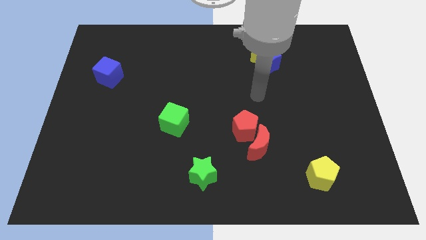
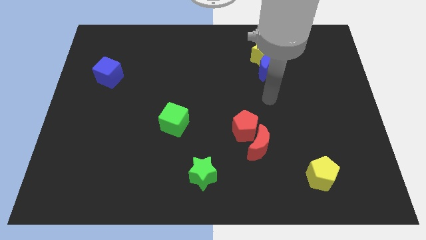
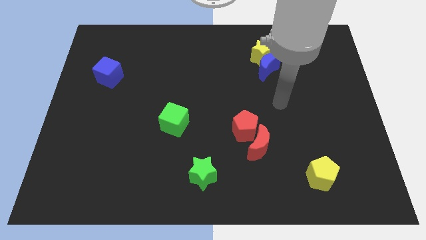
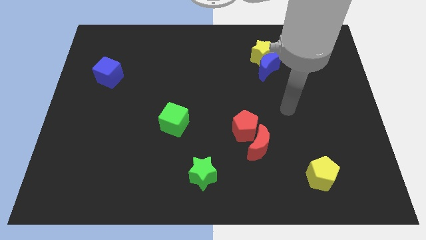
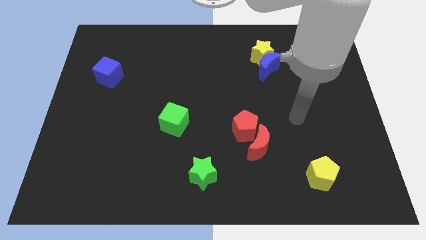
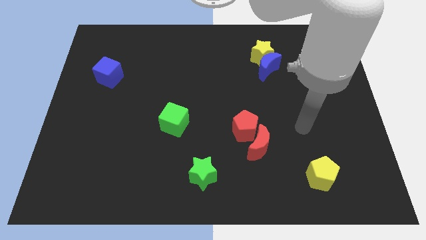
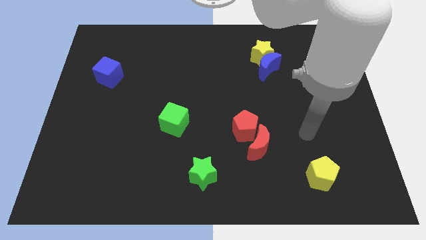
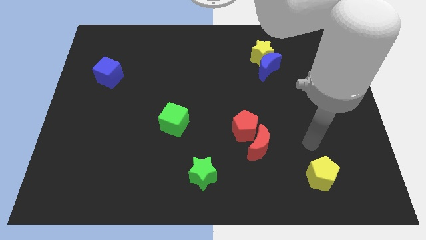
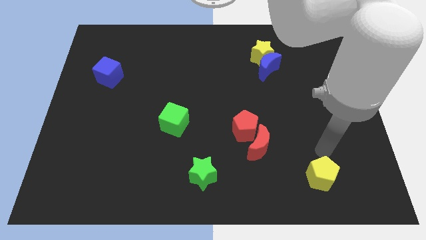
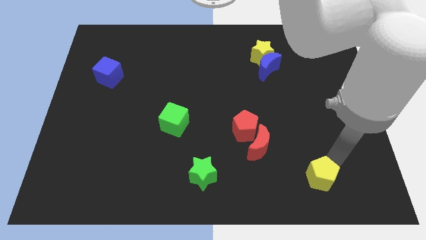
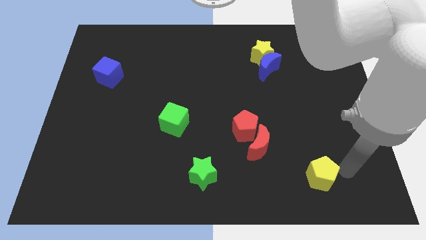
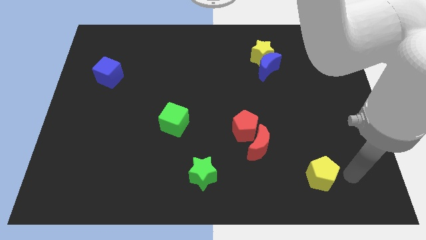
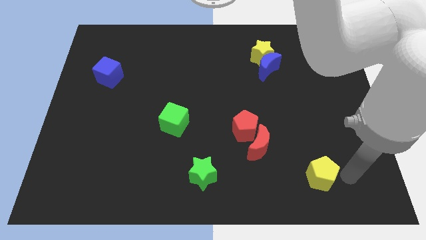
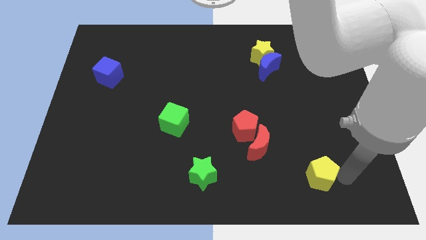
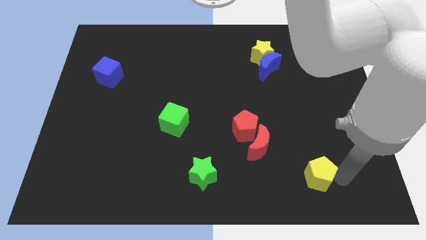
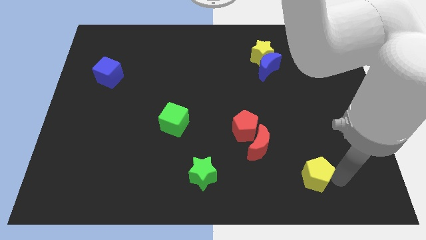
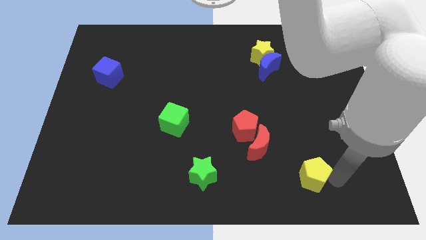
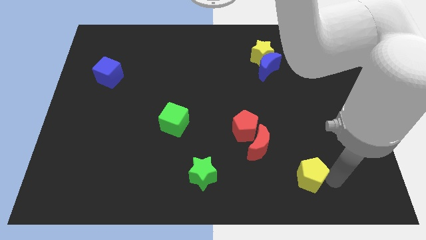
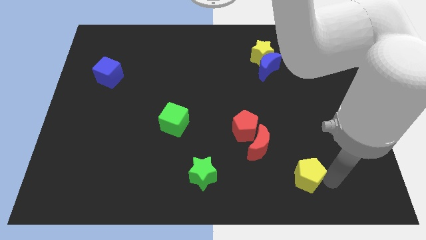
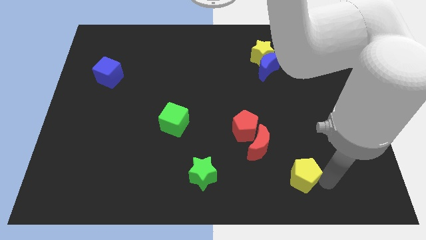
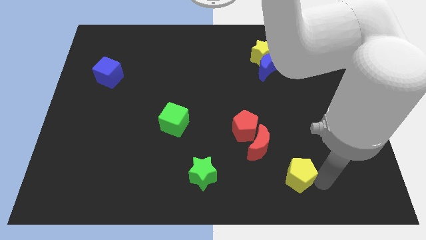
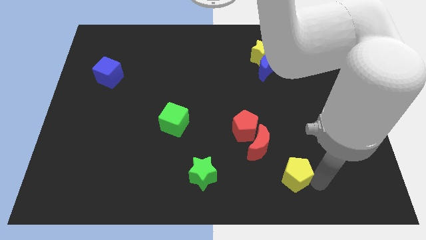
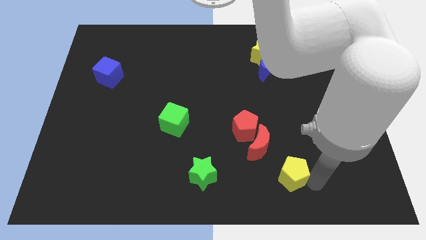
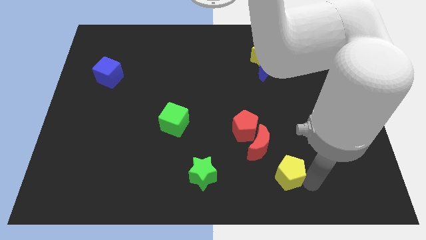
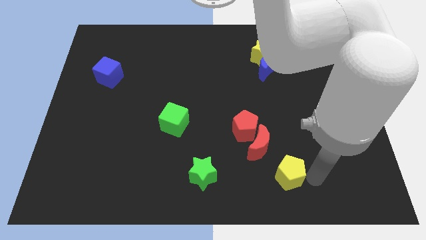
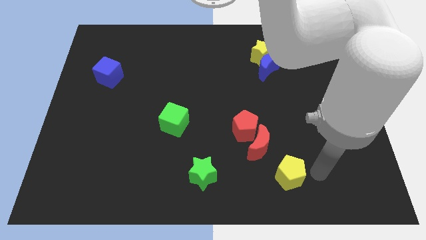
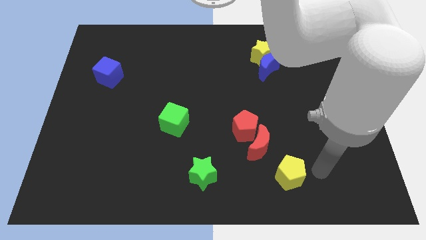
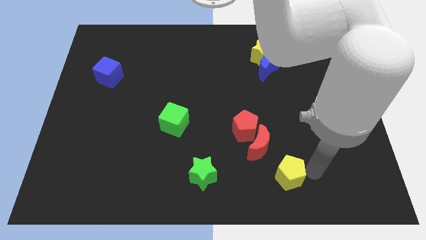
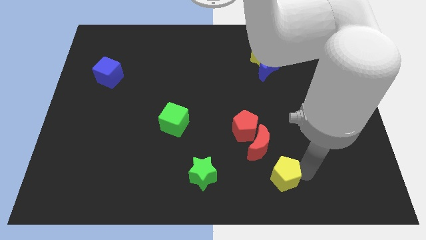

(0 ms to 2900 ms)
slightly move the yellow pentagon to the left

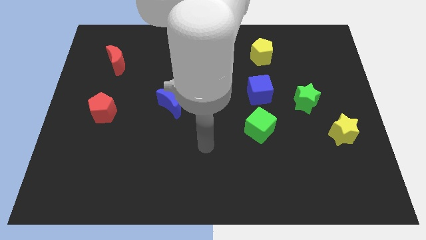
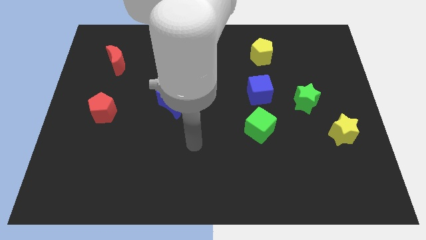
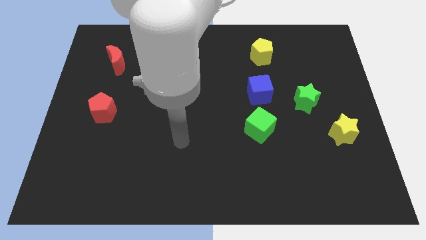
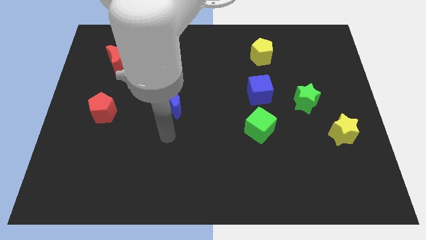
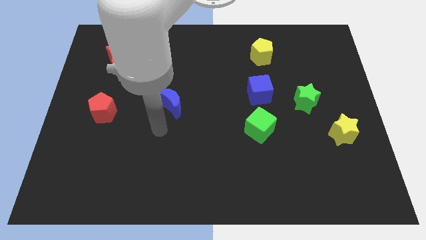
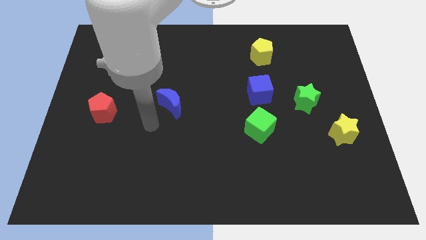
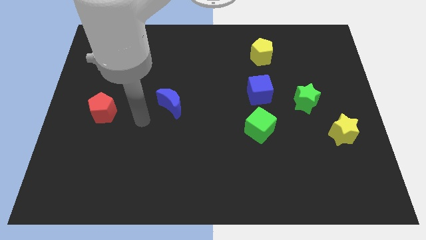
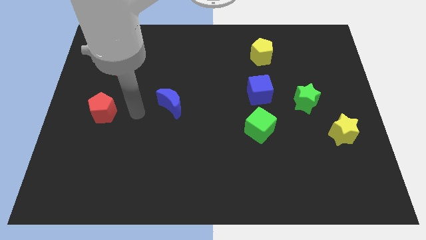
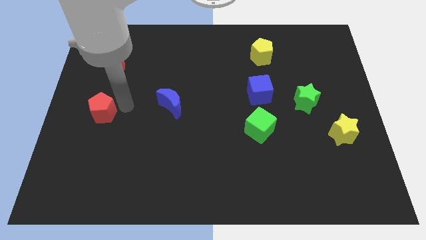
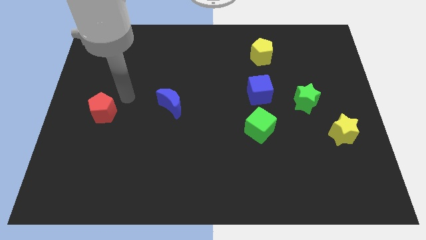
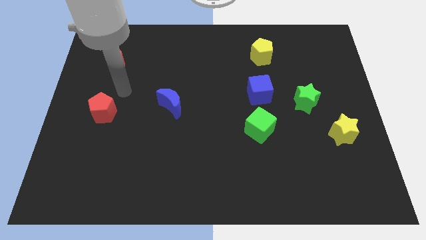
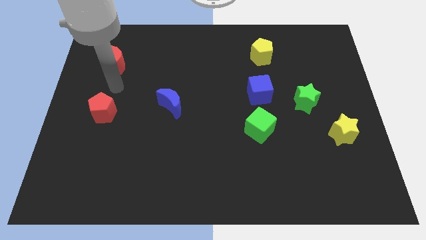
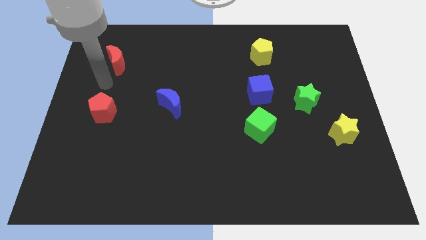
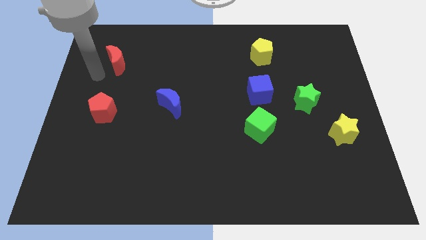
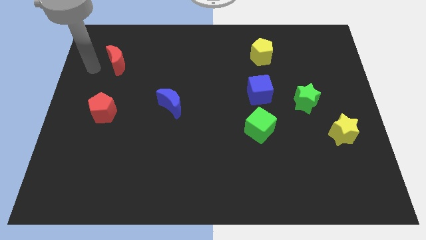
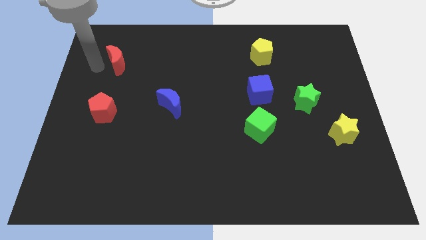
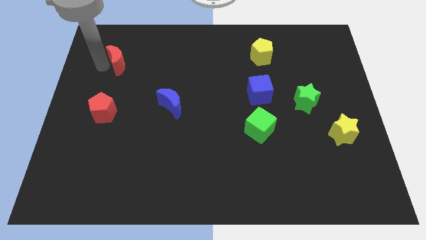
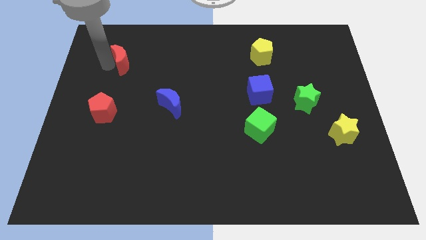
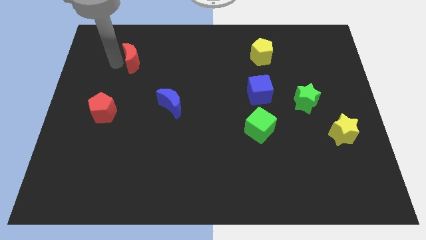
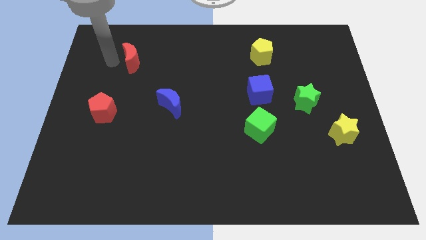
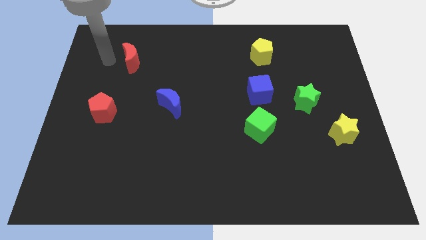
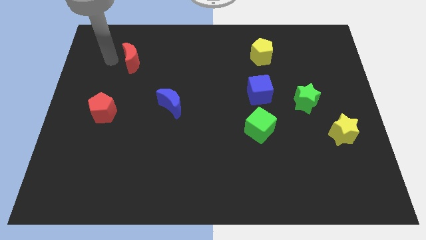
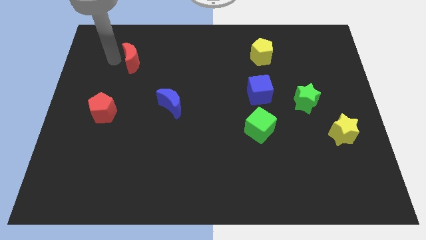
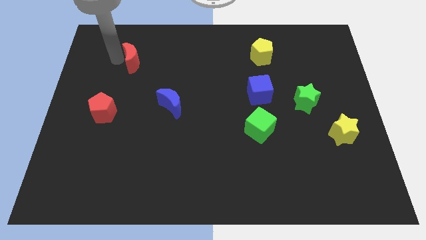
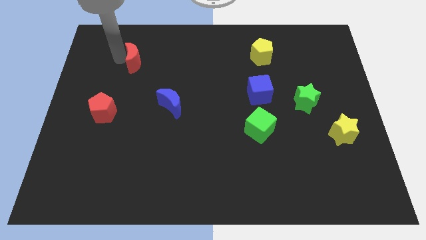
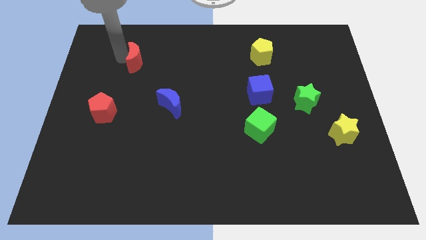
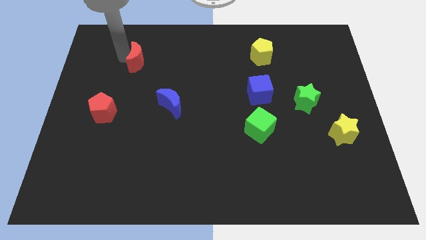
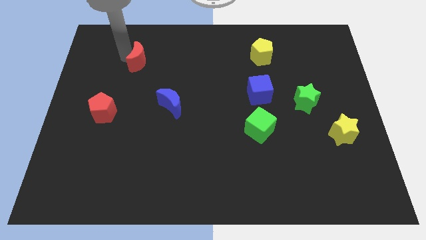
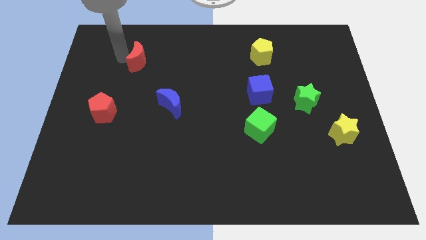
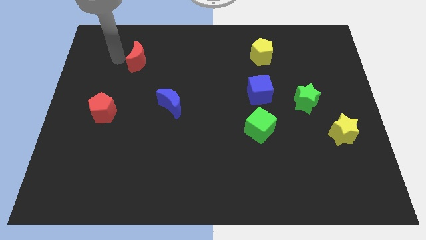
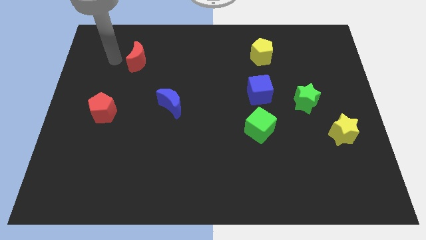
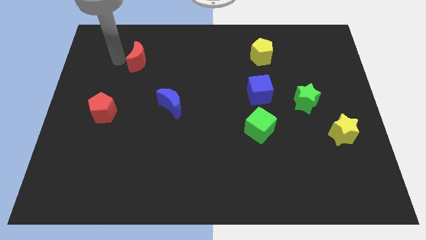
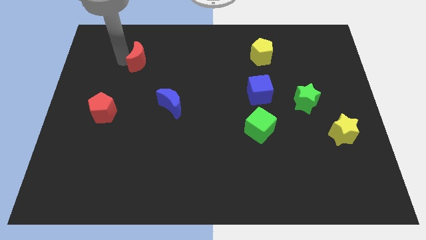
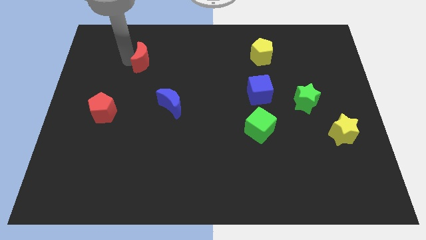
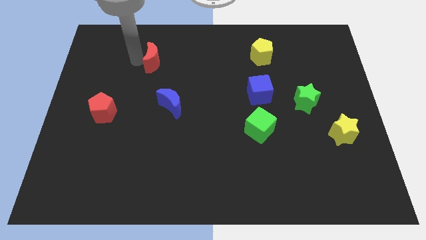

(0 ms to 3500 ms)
slightly push the red moon right

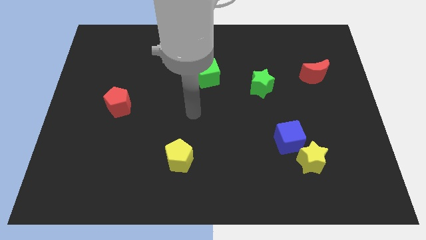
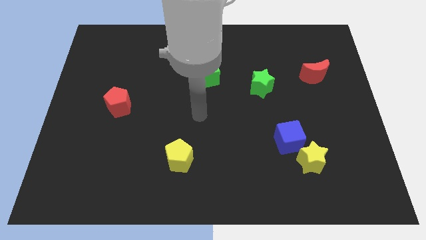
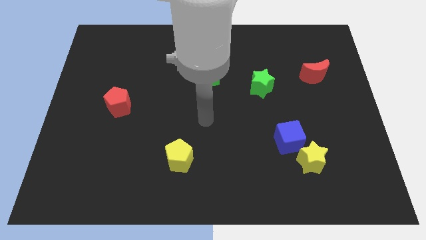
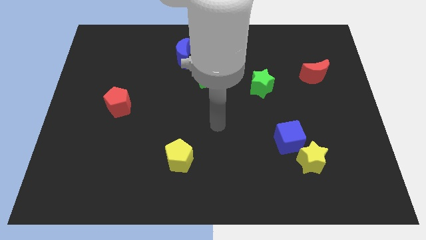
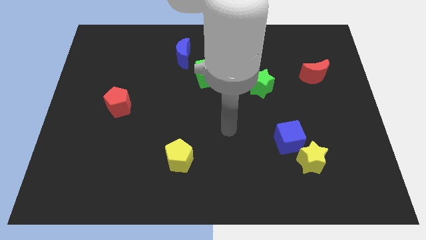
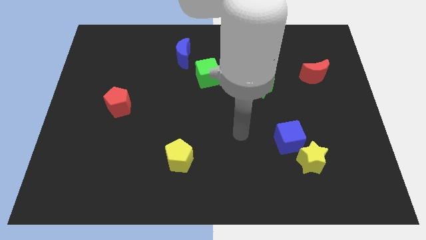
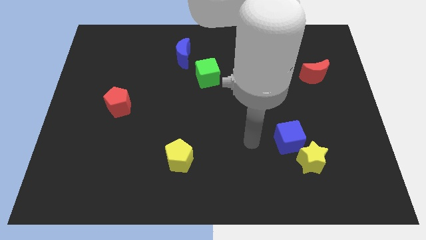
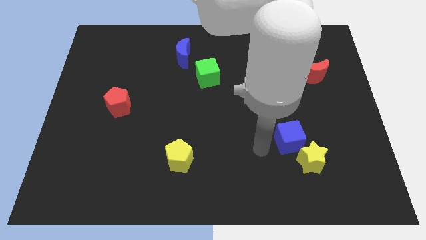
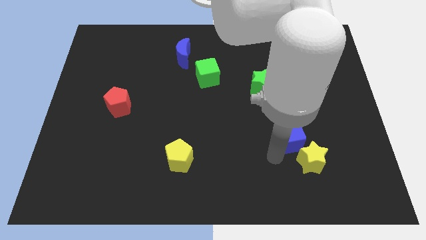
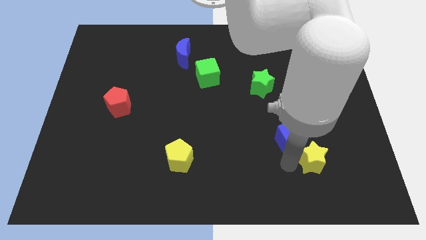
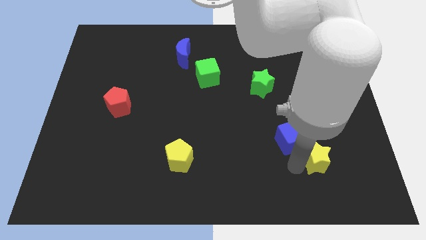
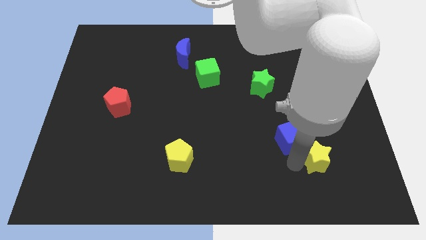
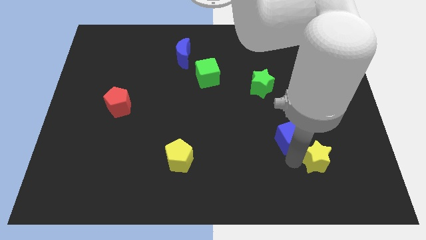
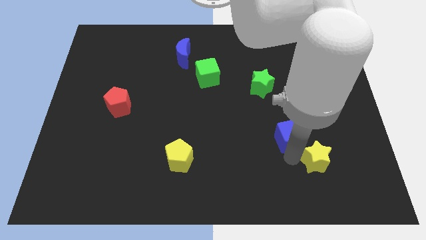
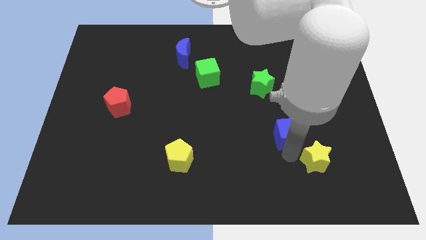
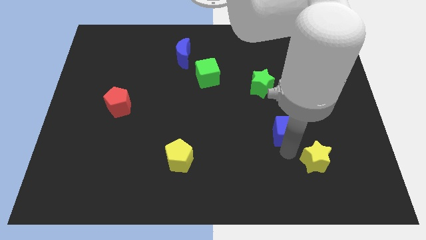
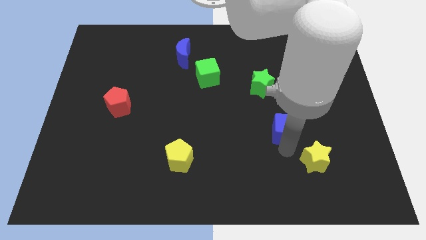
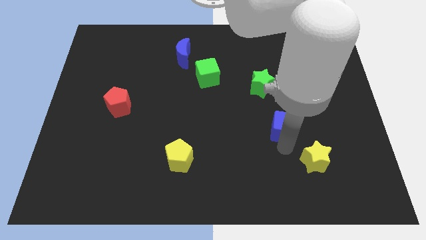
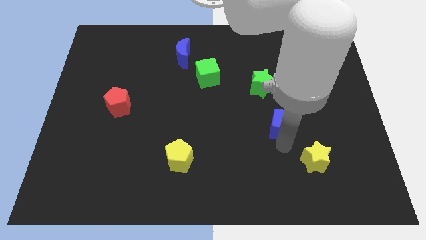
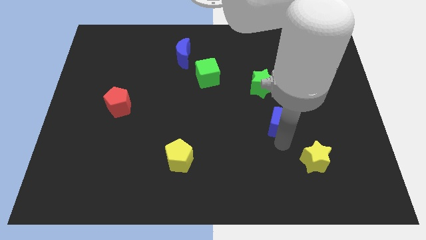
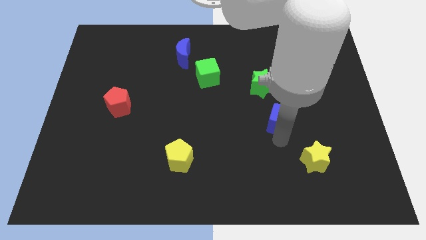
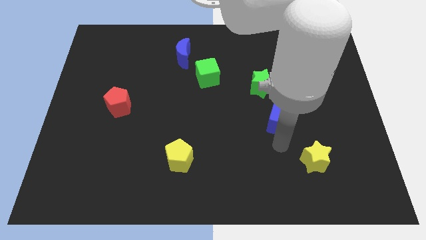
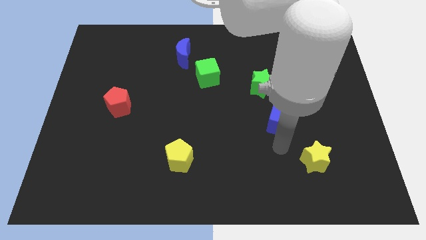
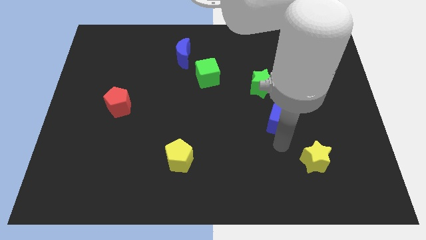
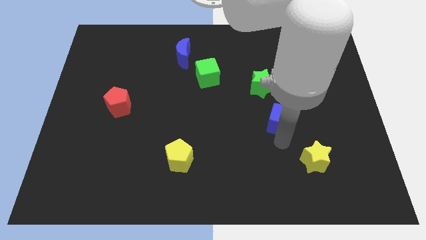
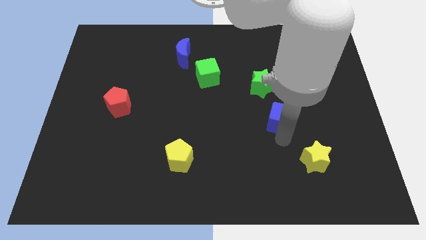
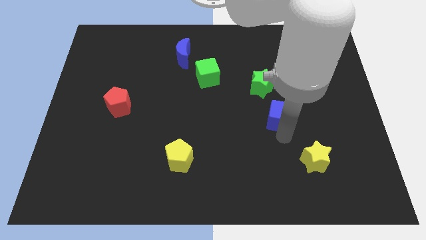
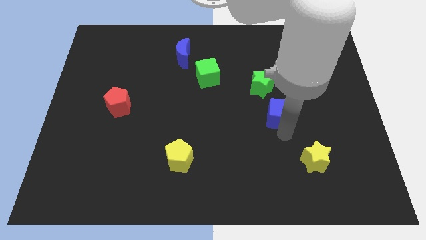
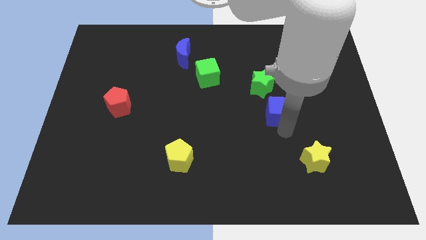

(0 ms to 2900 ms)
slightly move the blue cube upwards
